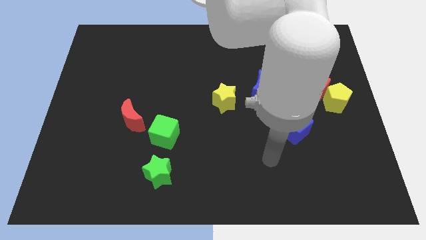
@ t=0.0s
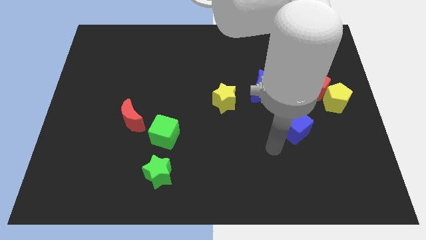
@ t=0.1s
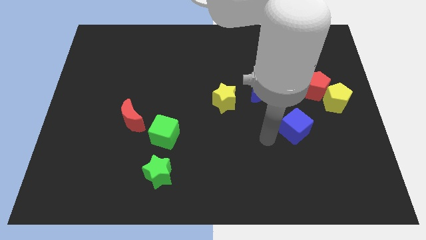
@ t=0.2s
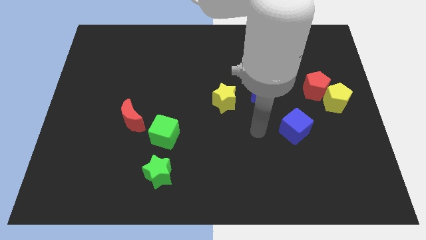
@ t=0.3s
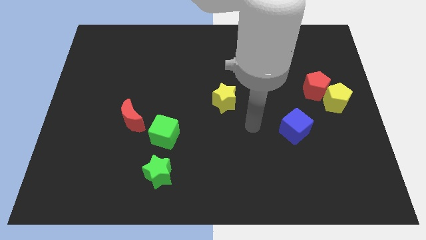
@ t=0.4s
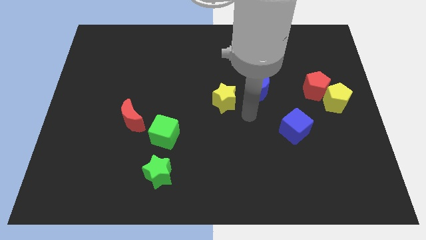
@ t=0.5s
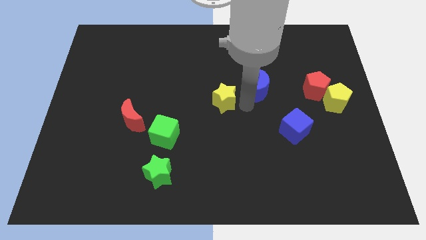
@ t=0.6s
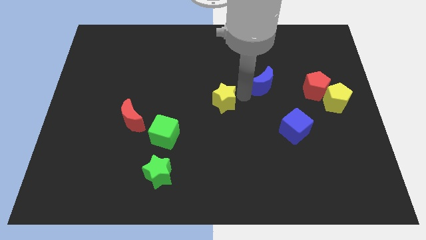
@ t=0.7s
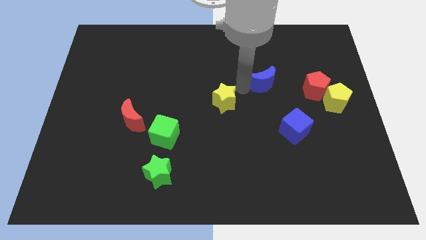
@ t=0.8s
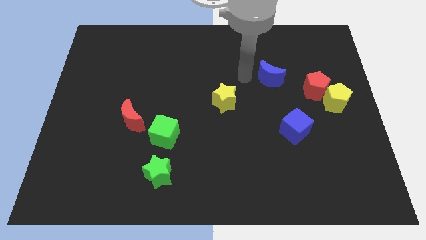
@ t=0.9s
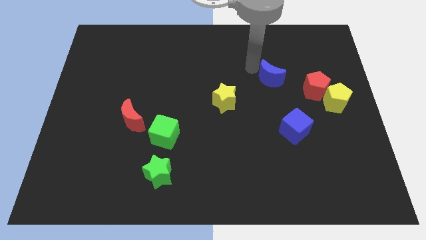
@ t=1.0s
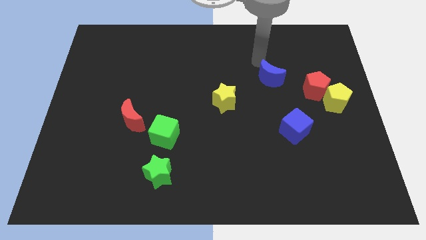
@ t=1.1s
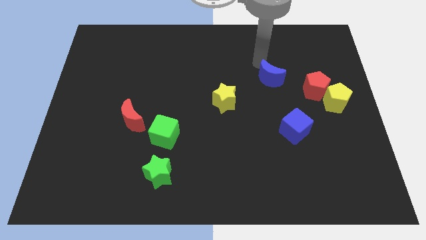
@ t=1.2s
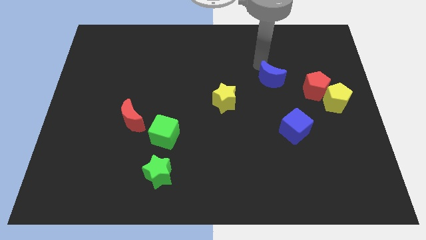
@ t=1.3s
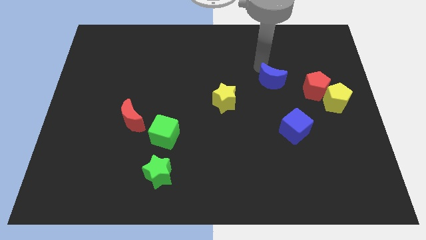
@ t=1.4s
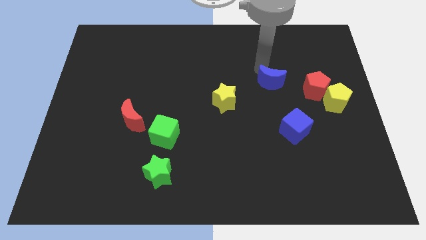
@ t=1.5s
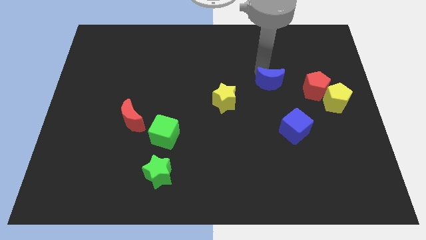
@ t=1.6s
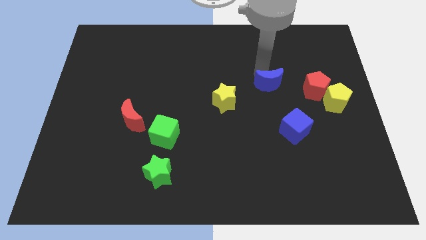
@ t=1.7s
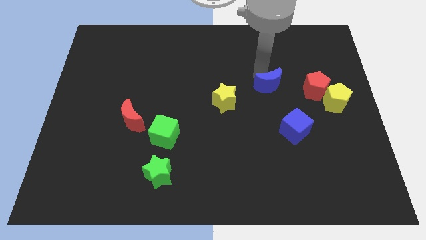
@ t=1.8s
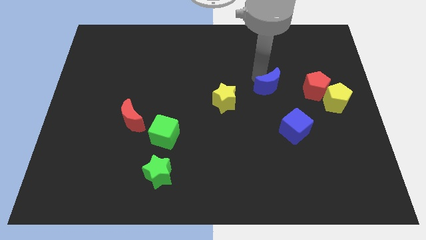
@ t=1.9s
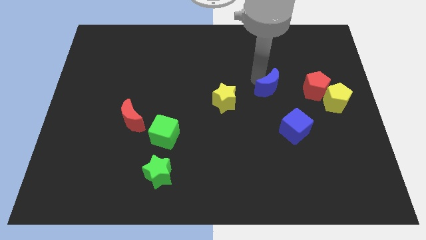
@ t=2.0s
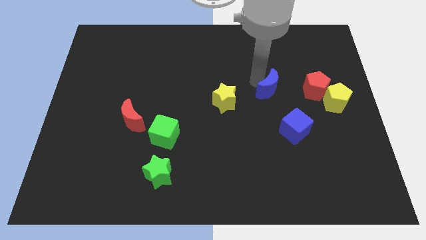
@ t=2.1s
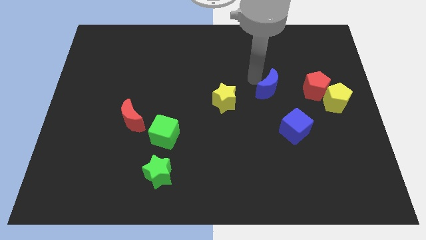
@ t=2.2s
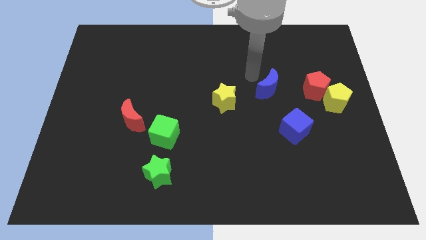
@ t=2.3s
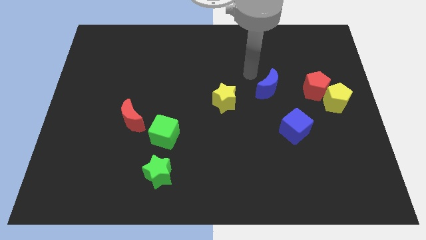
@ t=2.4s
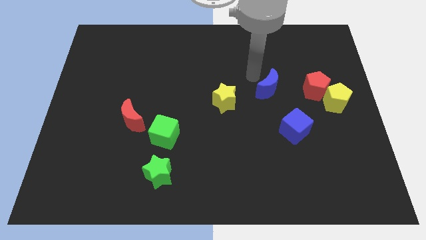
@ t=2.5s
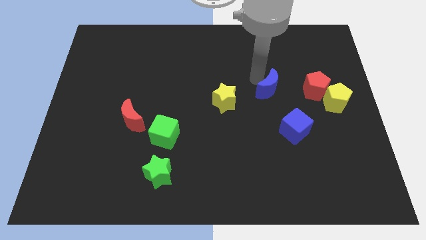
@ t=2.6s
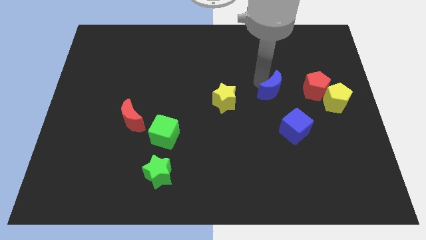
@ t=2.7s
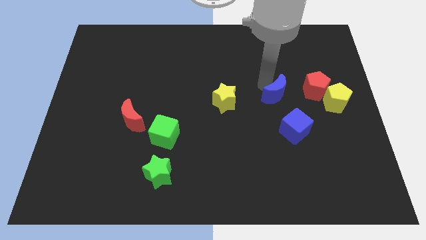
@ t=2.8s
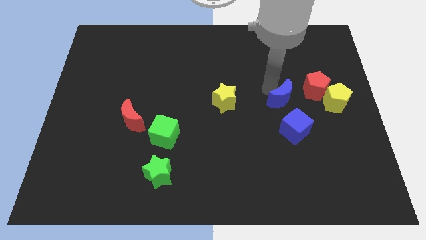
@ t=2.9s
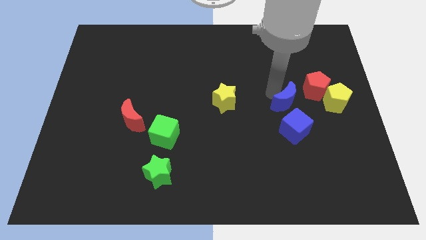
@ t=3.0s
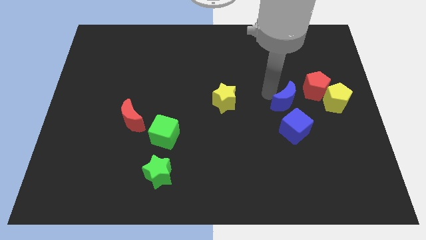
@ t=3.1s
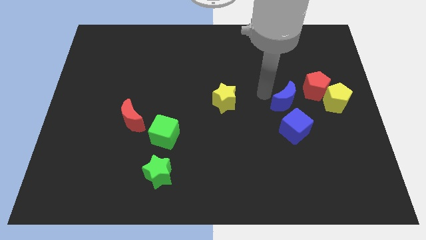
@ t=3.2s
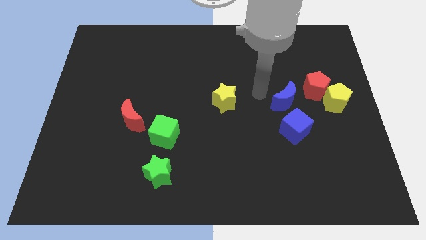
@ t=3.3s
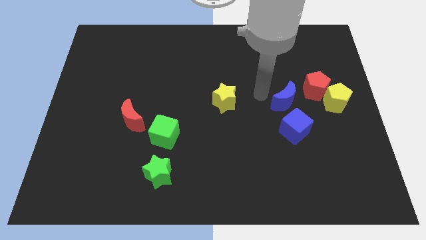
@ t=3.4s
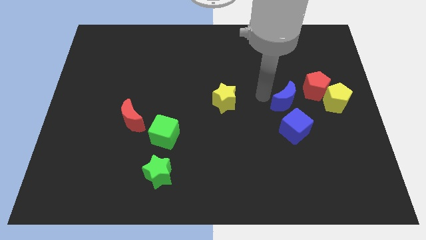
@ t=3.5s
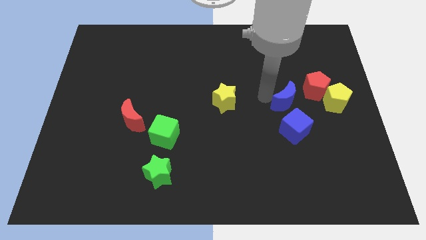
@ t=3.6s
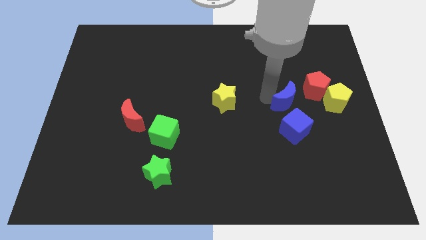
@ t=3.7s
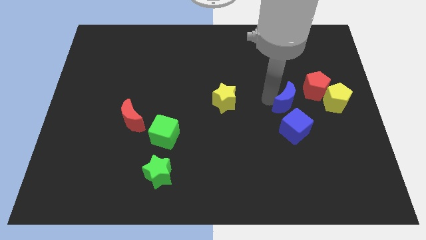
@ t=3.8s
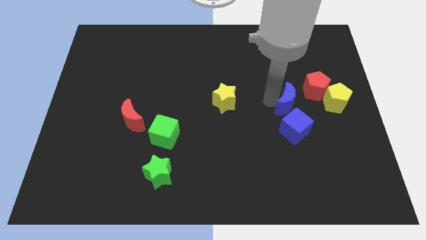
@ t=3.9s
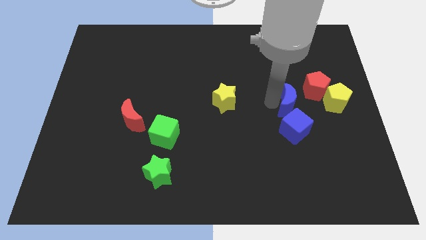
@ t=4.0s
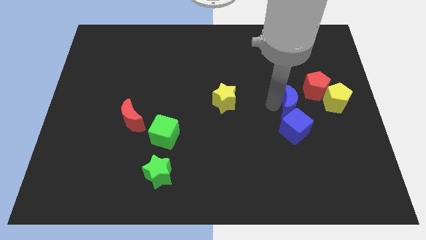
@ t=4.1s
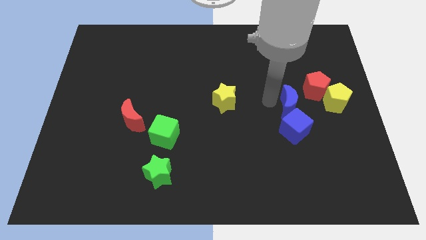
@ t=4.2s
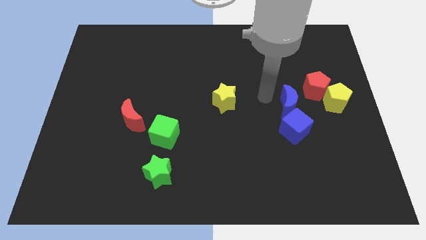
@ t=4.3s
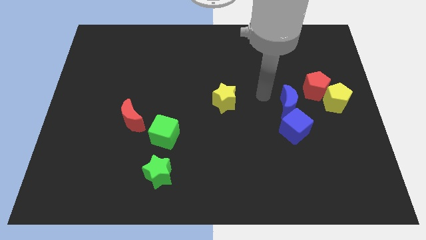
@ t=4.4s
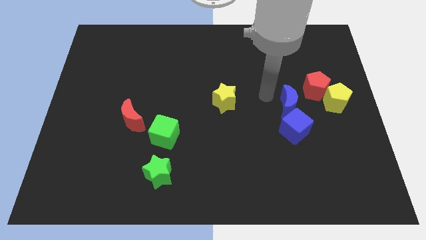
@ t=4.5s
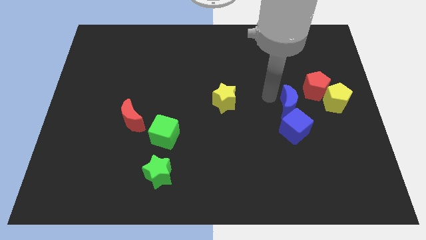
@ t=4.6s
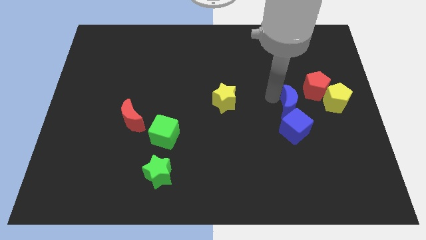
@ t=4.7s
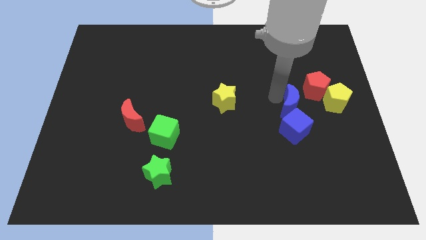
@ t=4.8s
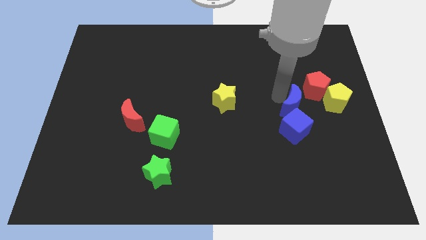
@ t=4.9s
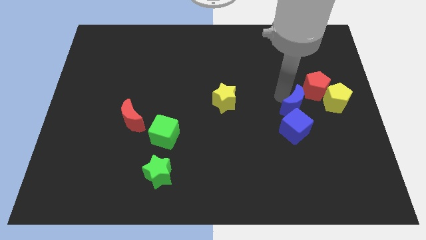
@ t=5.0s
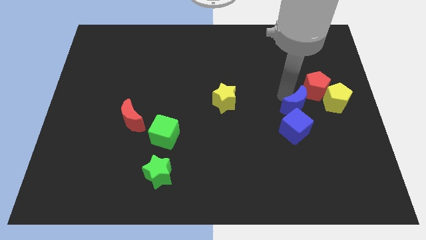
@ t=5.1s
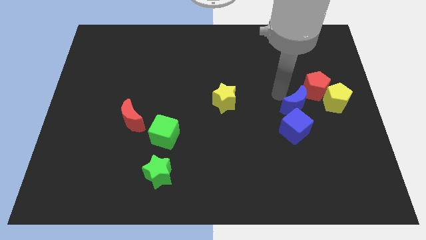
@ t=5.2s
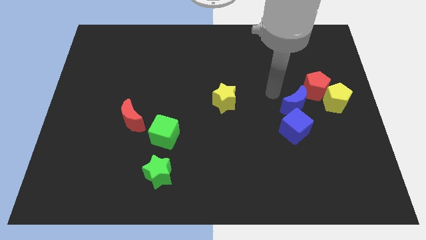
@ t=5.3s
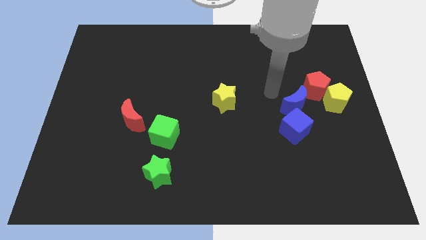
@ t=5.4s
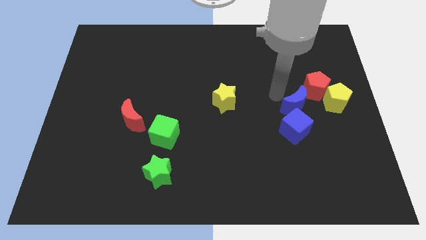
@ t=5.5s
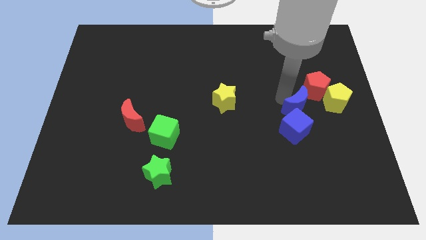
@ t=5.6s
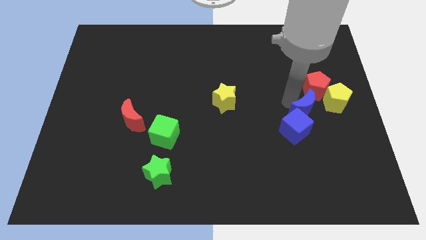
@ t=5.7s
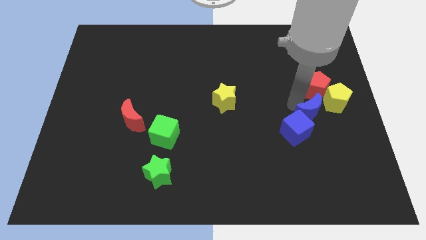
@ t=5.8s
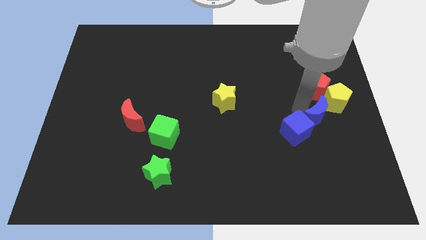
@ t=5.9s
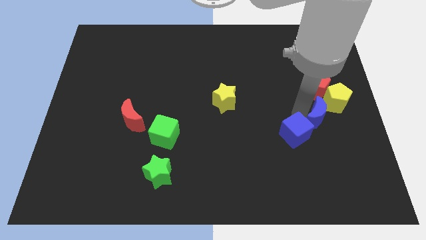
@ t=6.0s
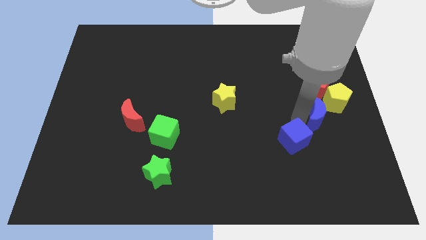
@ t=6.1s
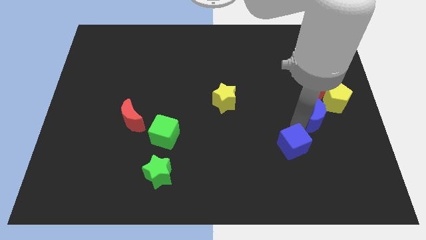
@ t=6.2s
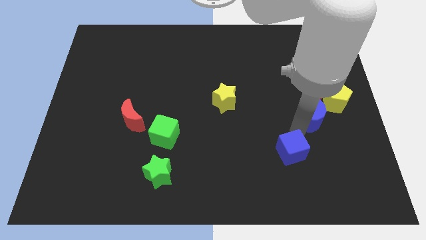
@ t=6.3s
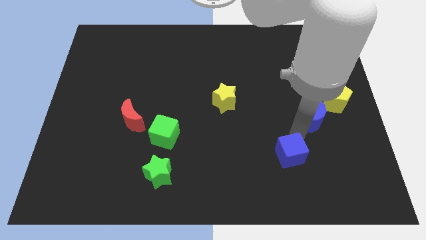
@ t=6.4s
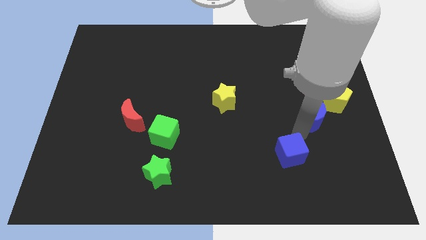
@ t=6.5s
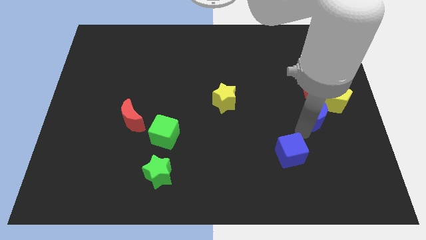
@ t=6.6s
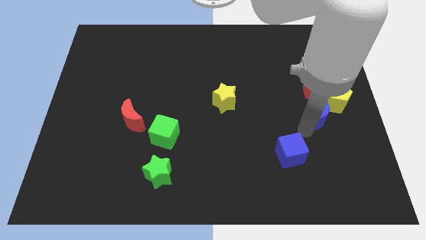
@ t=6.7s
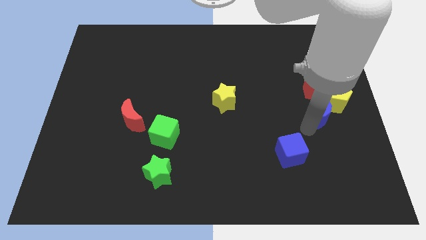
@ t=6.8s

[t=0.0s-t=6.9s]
push the blue moon close to the yellow pentagon
